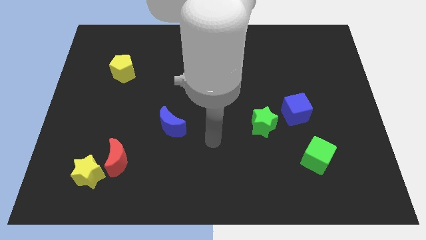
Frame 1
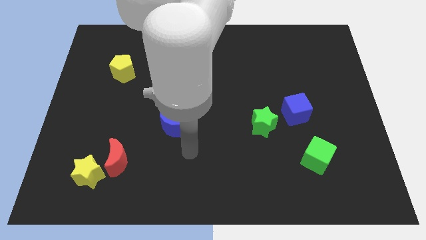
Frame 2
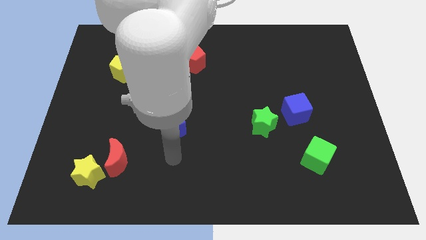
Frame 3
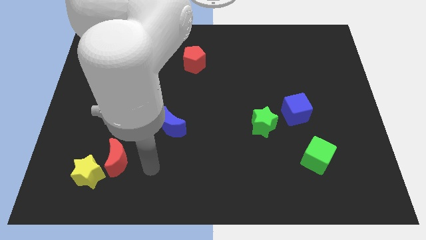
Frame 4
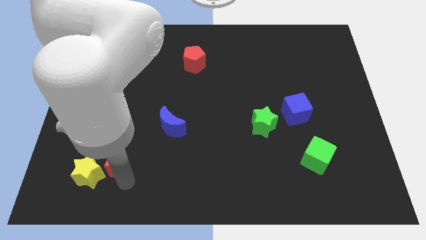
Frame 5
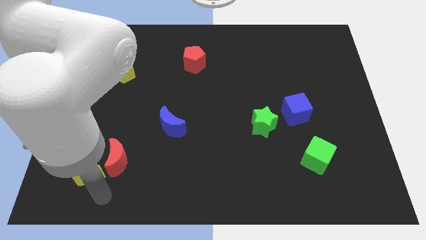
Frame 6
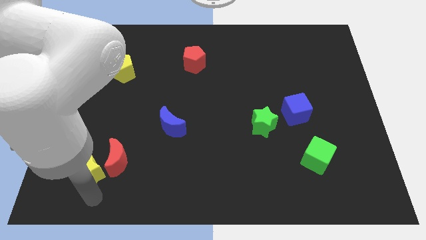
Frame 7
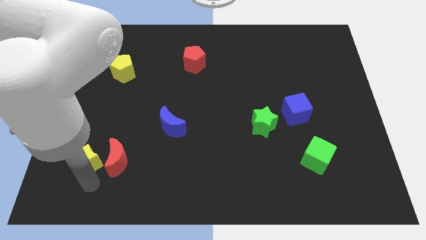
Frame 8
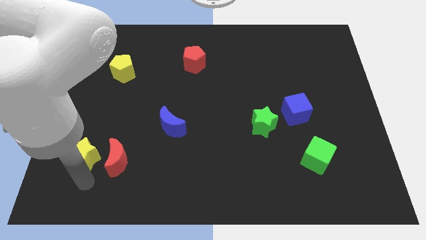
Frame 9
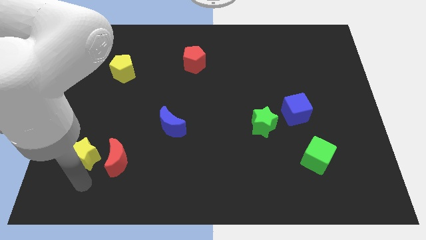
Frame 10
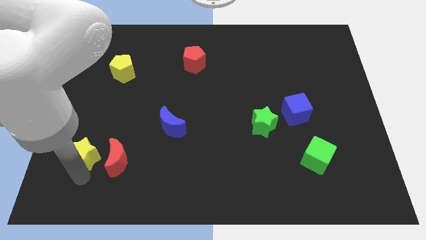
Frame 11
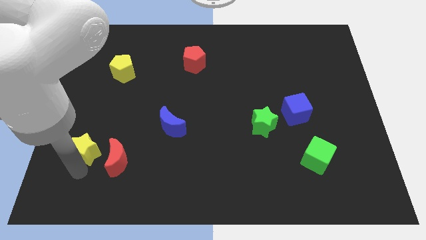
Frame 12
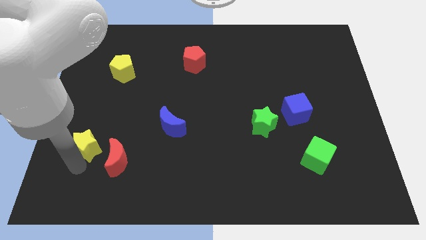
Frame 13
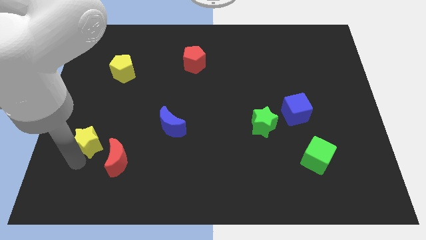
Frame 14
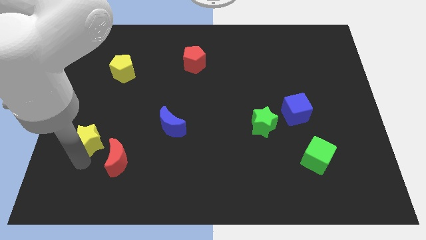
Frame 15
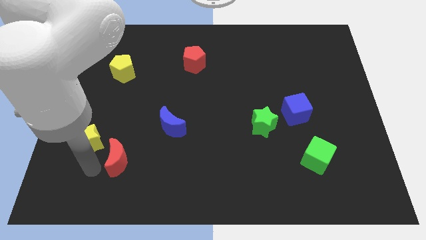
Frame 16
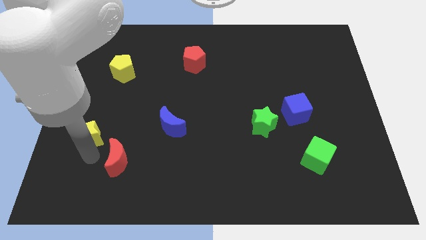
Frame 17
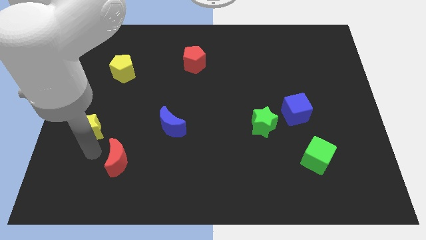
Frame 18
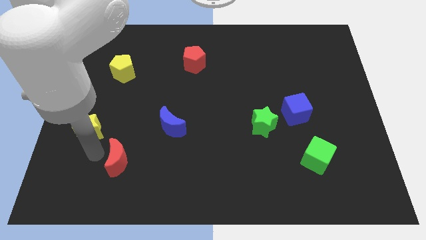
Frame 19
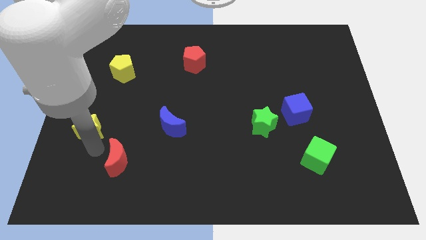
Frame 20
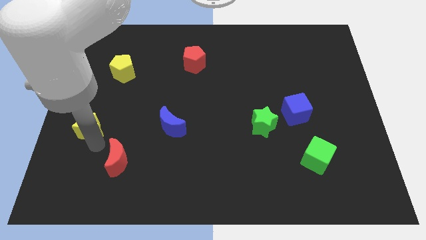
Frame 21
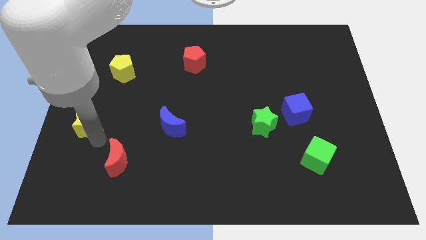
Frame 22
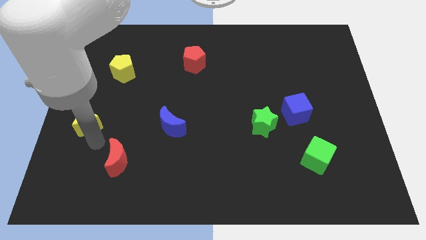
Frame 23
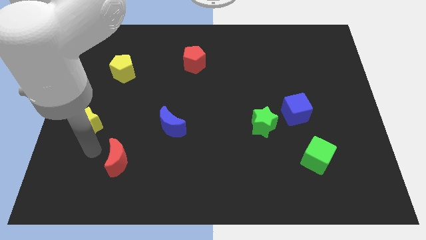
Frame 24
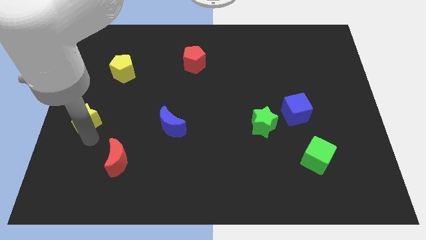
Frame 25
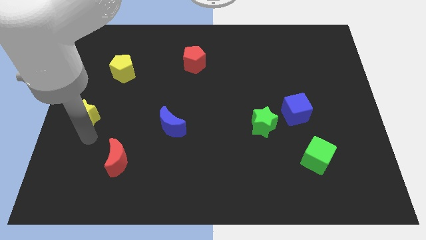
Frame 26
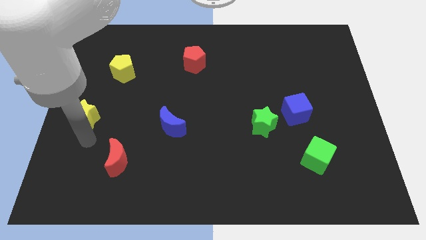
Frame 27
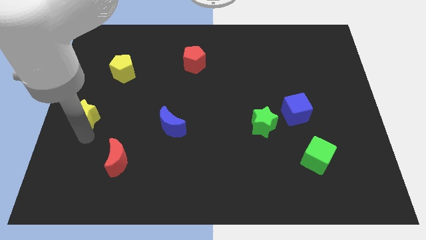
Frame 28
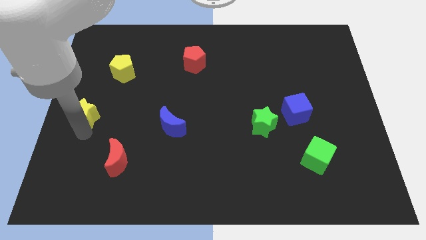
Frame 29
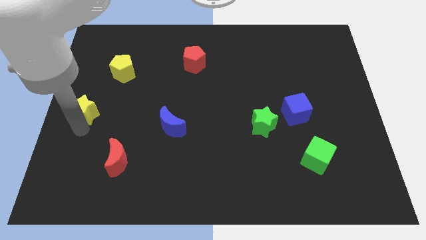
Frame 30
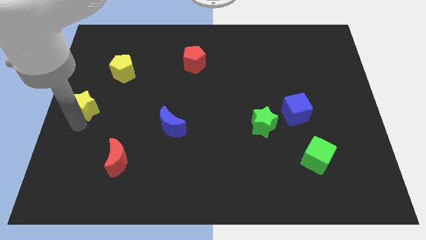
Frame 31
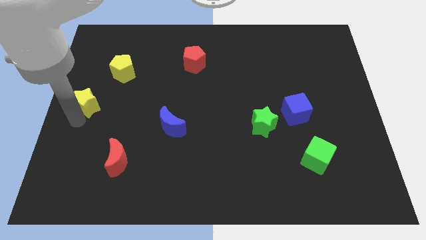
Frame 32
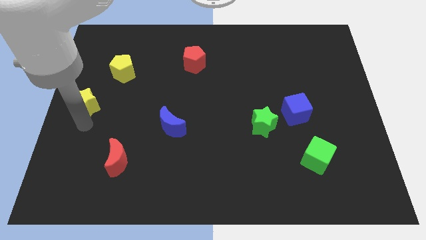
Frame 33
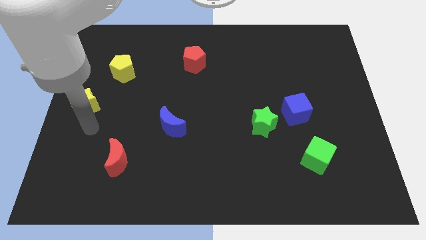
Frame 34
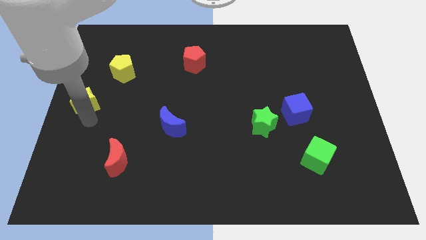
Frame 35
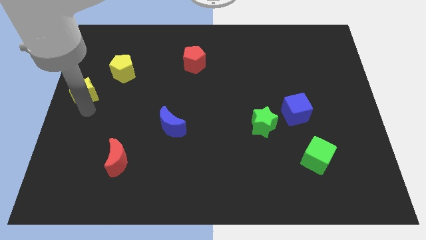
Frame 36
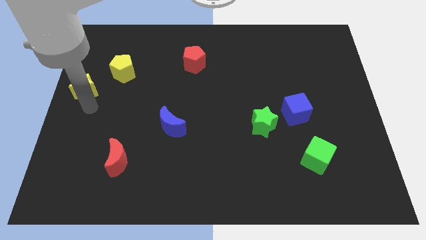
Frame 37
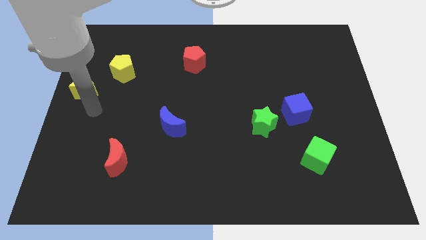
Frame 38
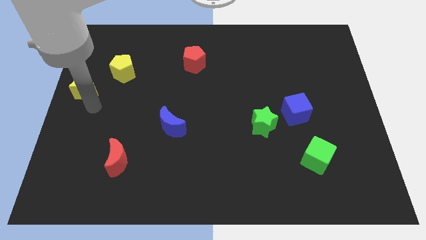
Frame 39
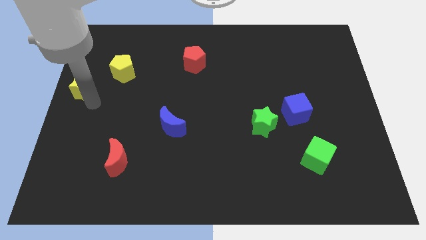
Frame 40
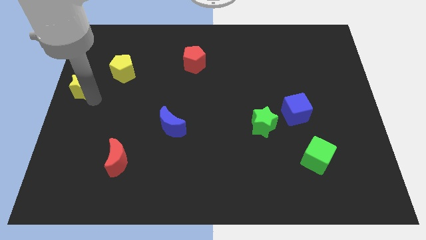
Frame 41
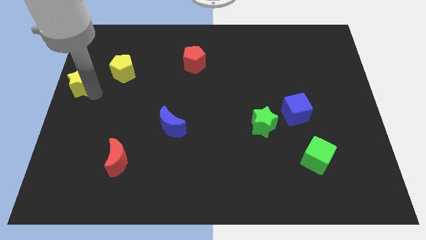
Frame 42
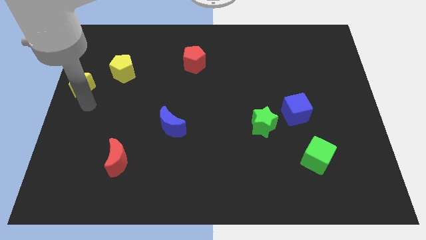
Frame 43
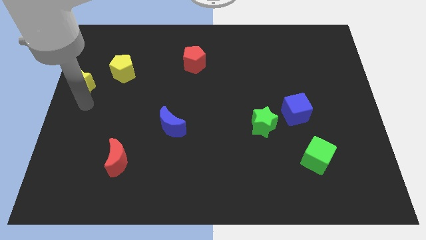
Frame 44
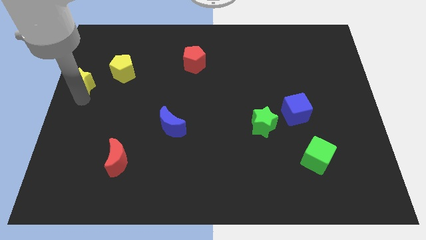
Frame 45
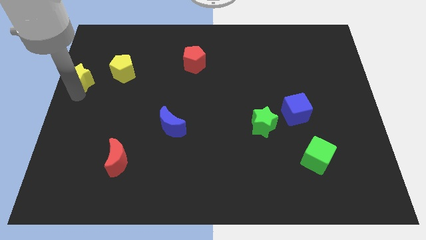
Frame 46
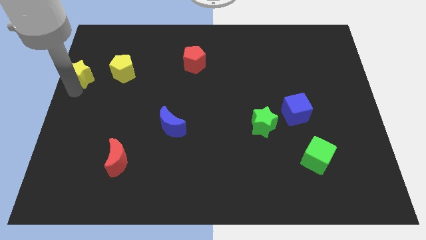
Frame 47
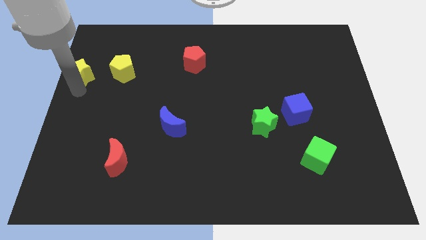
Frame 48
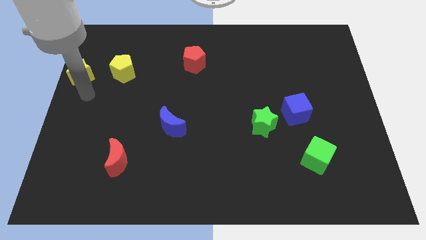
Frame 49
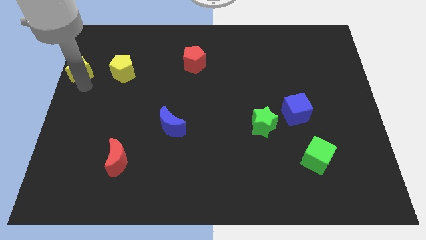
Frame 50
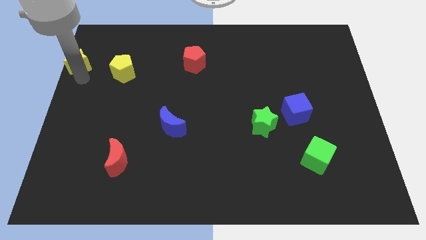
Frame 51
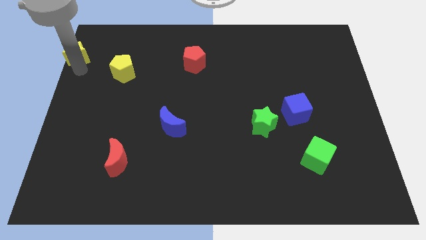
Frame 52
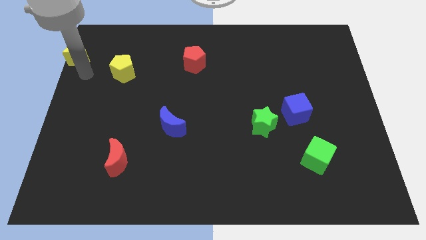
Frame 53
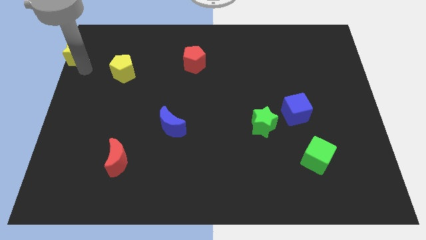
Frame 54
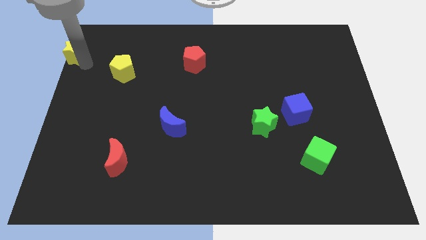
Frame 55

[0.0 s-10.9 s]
put the yellow star to the top left corner

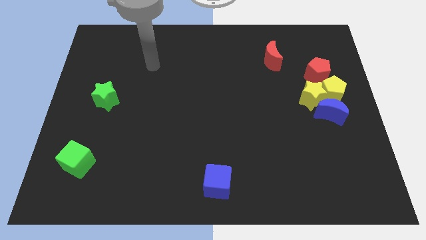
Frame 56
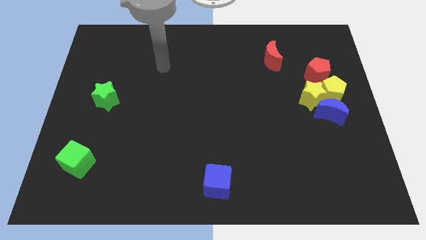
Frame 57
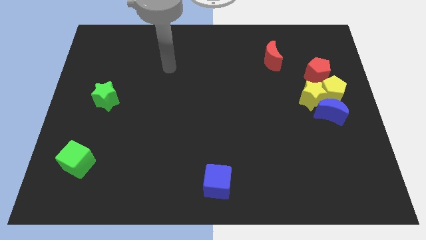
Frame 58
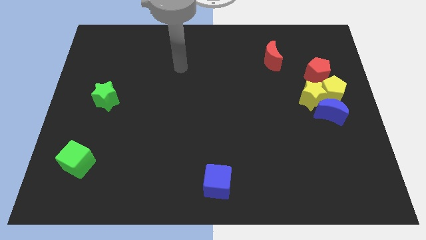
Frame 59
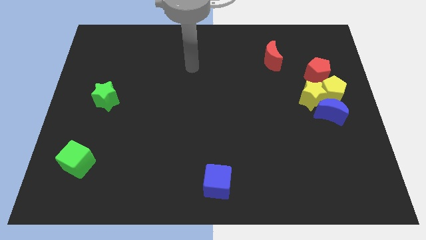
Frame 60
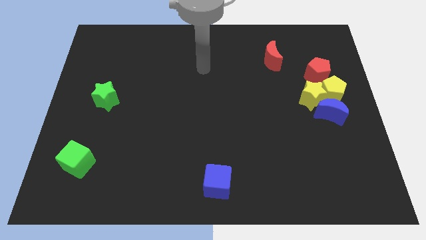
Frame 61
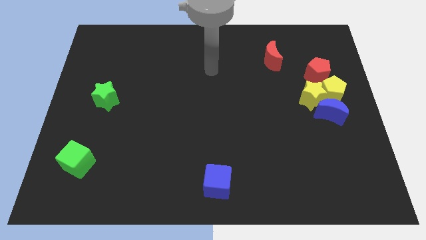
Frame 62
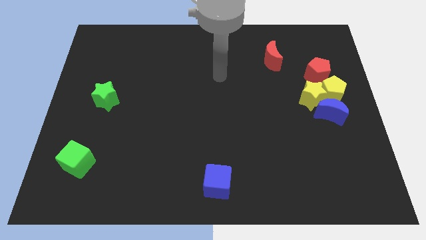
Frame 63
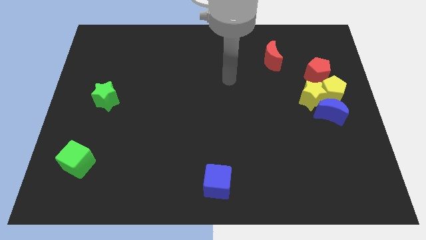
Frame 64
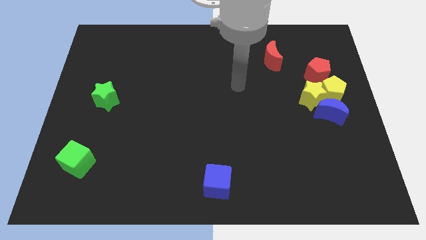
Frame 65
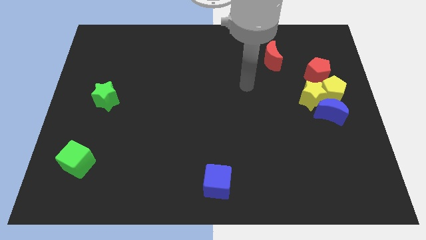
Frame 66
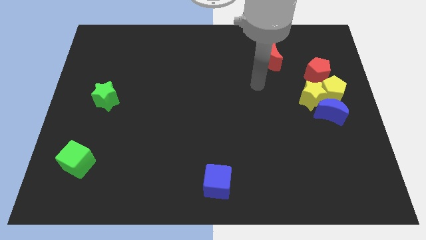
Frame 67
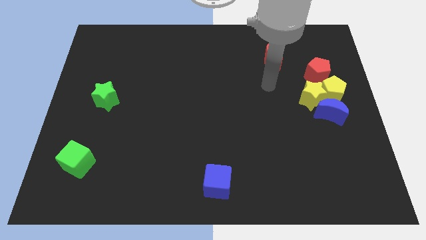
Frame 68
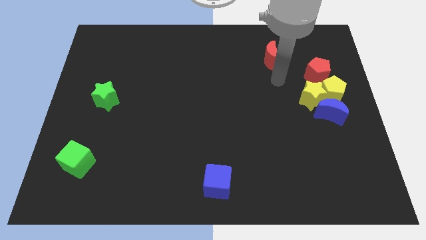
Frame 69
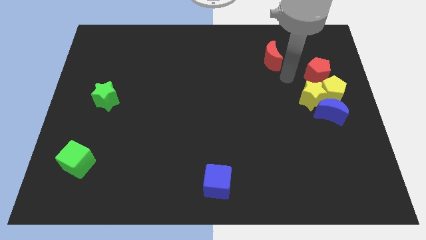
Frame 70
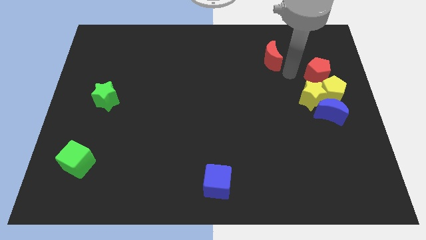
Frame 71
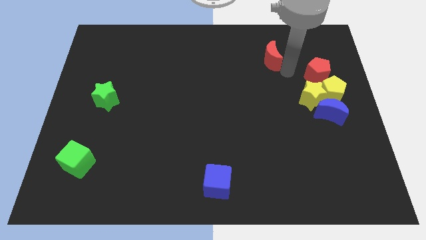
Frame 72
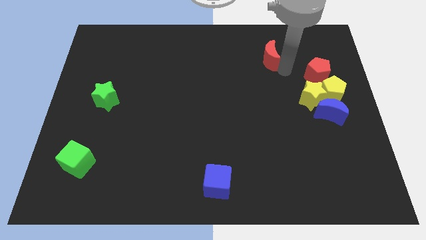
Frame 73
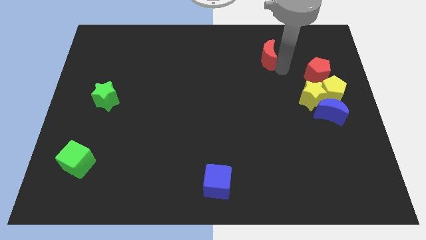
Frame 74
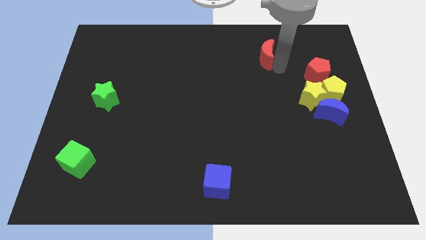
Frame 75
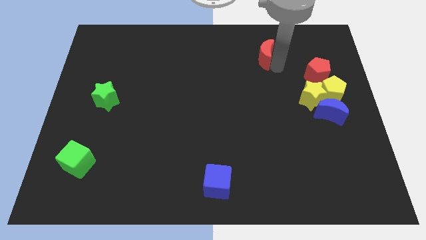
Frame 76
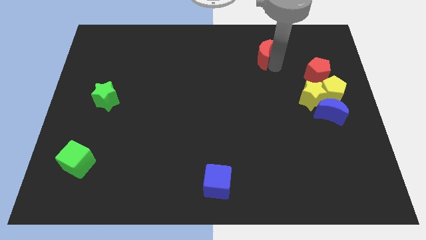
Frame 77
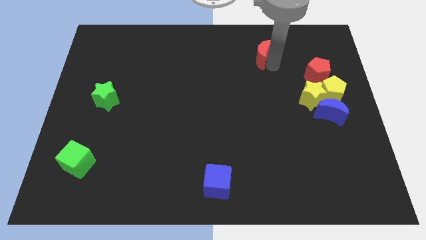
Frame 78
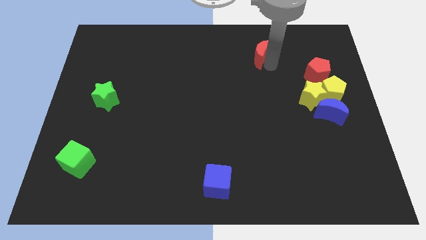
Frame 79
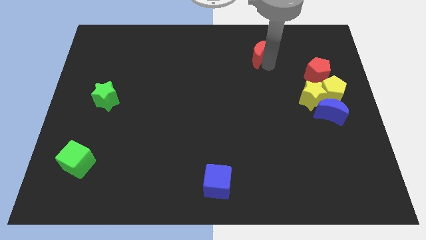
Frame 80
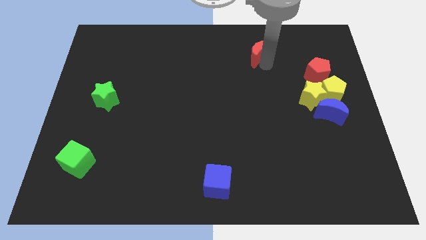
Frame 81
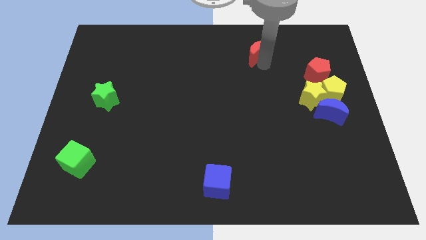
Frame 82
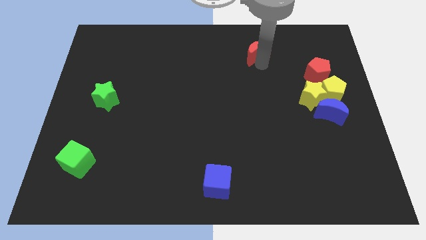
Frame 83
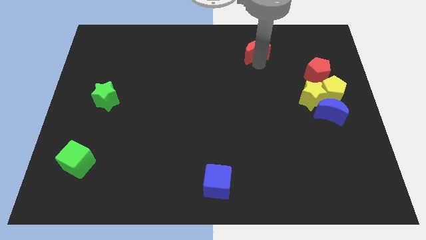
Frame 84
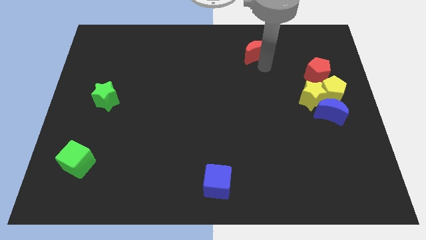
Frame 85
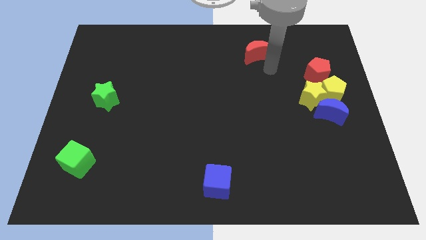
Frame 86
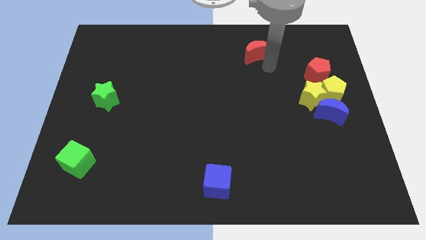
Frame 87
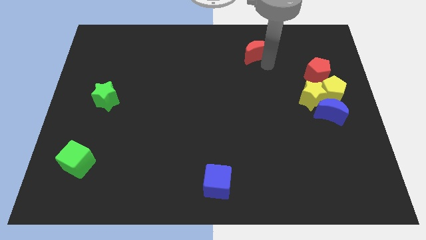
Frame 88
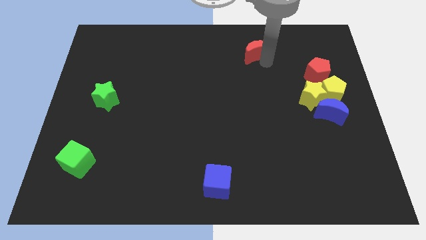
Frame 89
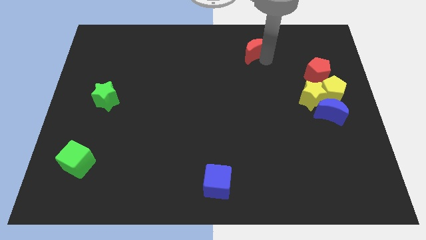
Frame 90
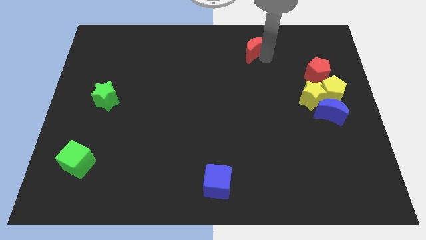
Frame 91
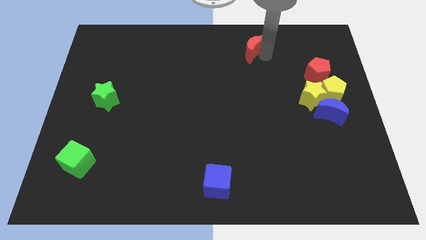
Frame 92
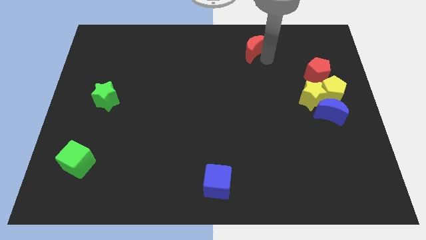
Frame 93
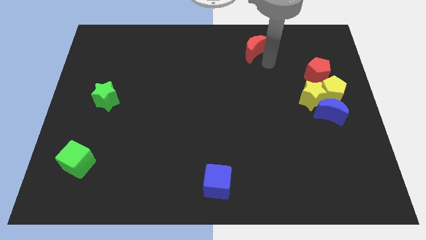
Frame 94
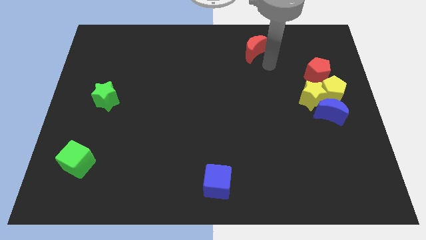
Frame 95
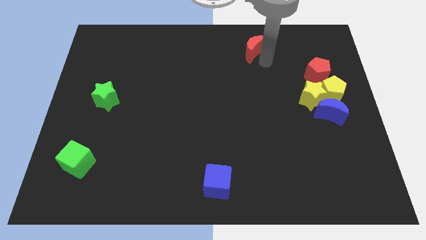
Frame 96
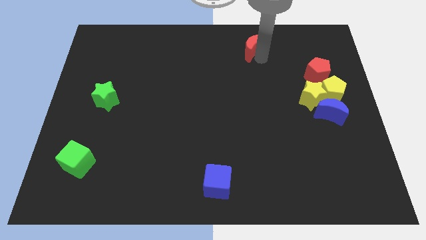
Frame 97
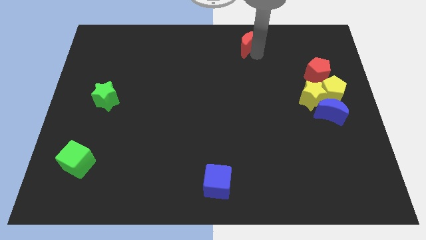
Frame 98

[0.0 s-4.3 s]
push the red moon to the top
